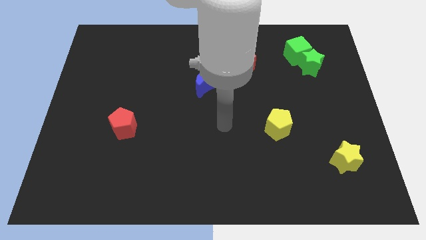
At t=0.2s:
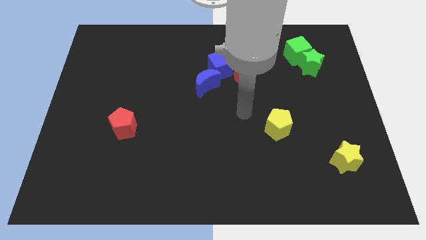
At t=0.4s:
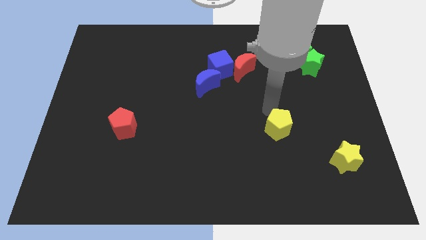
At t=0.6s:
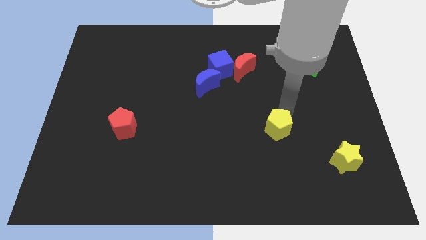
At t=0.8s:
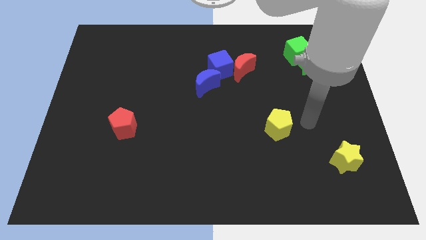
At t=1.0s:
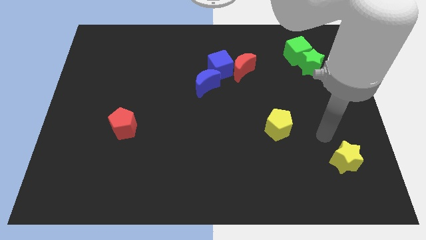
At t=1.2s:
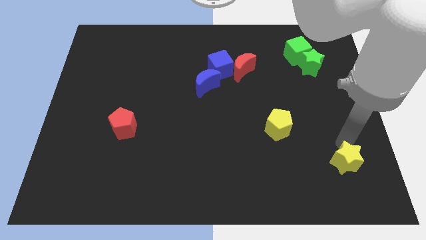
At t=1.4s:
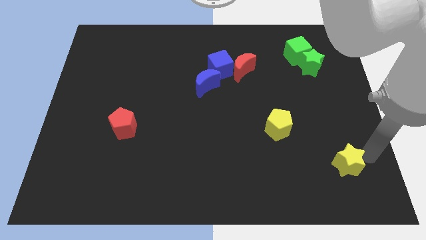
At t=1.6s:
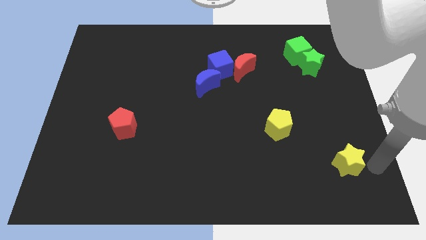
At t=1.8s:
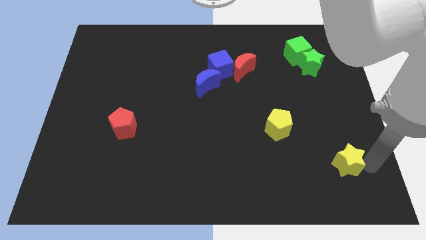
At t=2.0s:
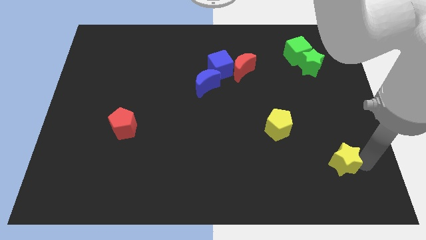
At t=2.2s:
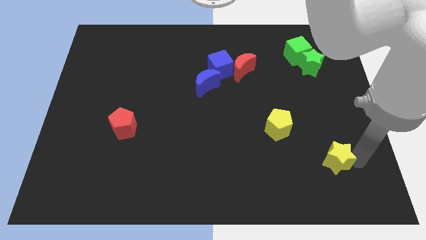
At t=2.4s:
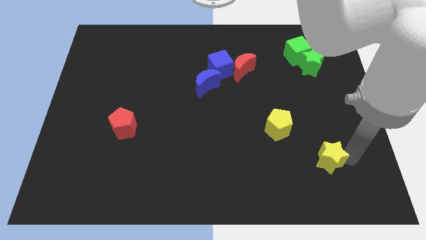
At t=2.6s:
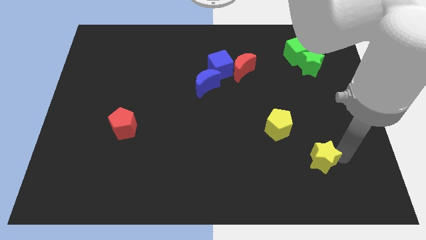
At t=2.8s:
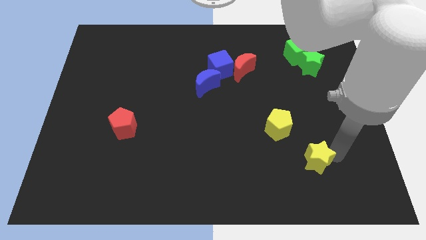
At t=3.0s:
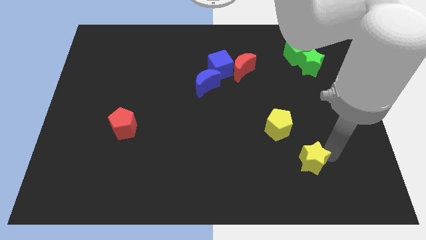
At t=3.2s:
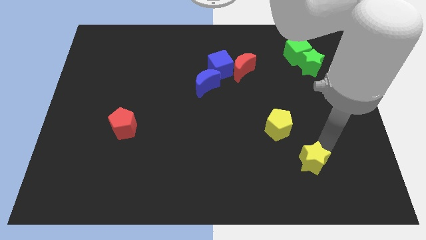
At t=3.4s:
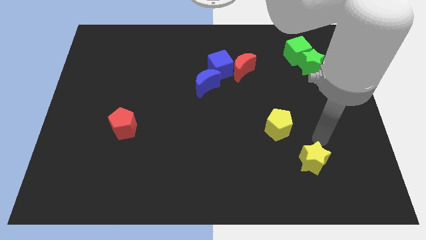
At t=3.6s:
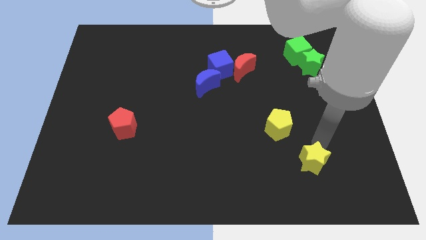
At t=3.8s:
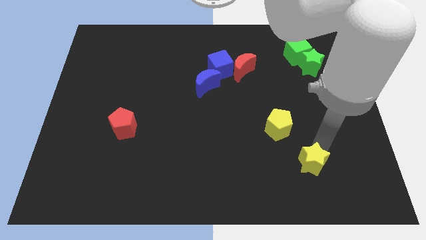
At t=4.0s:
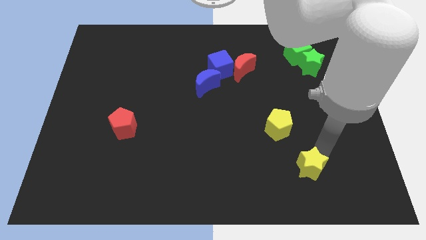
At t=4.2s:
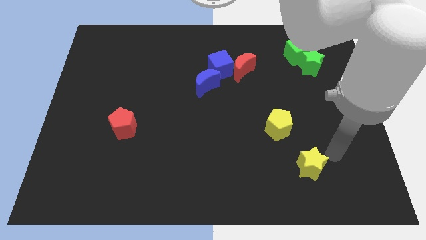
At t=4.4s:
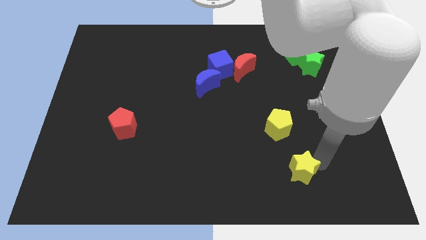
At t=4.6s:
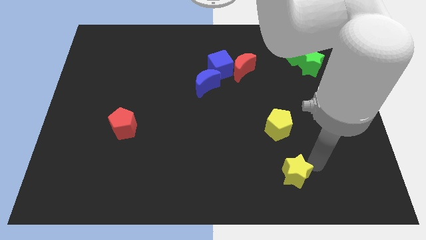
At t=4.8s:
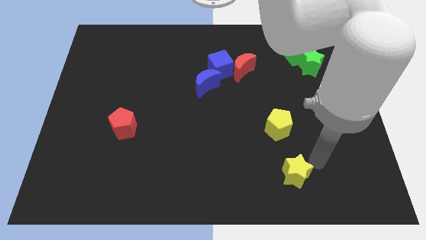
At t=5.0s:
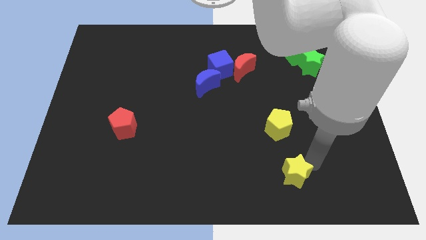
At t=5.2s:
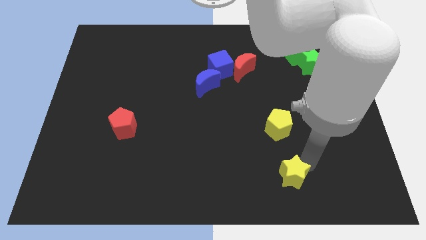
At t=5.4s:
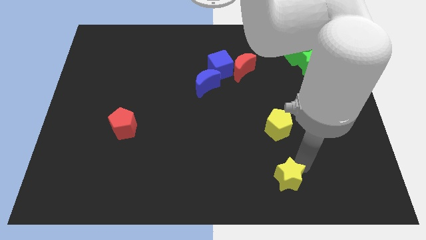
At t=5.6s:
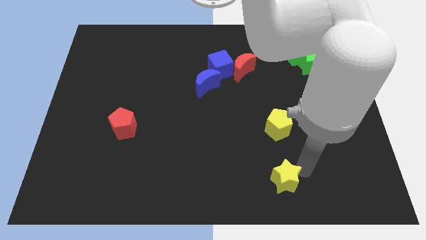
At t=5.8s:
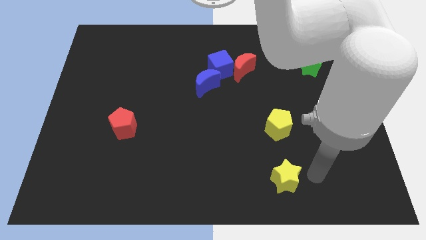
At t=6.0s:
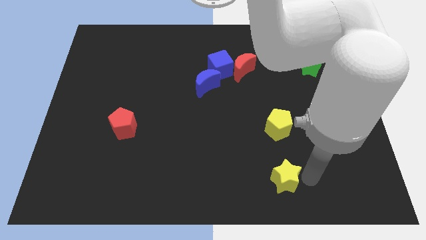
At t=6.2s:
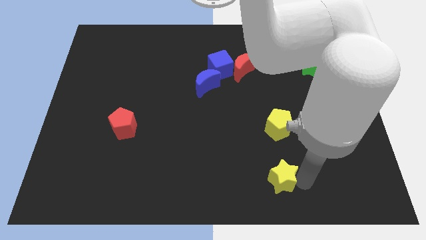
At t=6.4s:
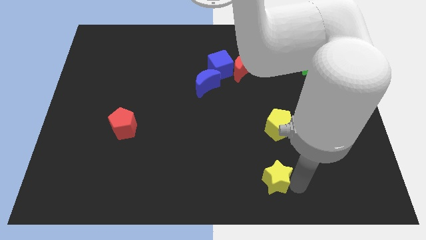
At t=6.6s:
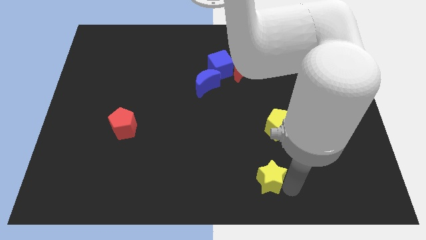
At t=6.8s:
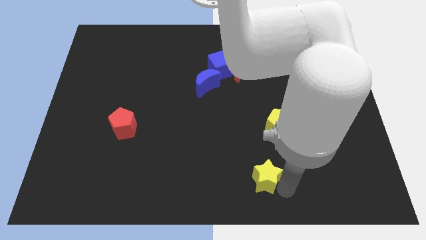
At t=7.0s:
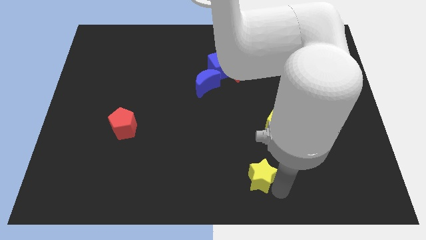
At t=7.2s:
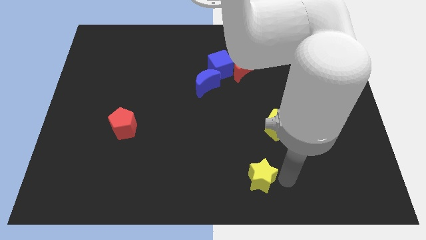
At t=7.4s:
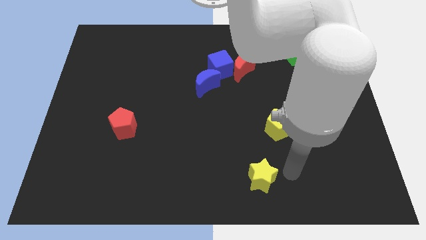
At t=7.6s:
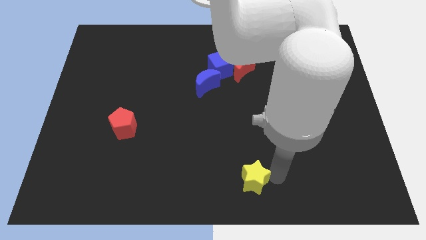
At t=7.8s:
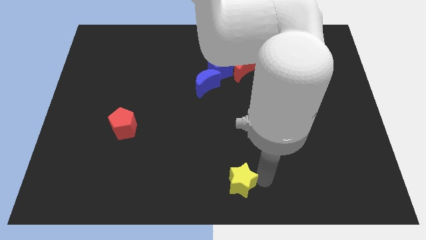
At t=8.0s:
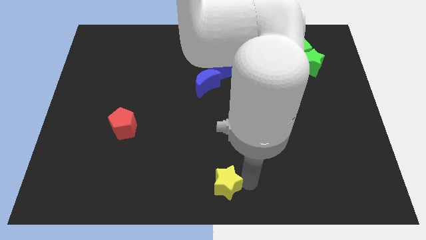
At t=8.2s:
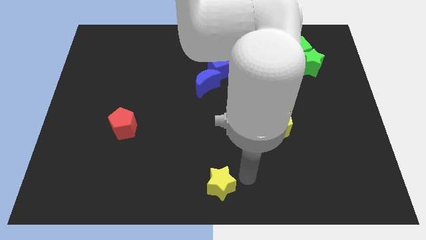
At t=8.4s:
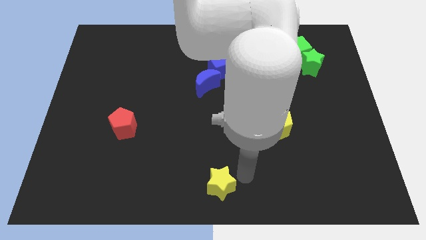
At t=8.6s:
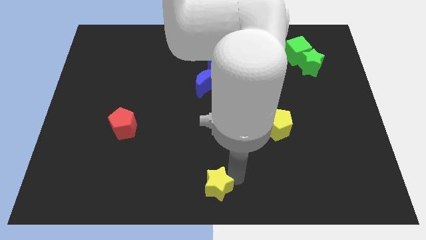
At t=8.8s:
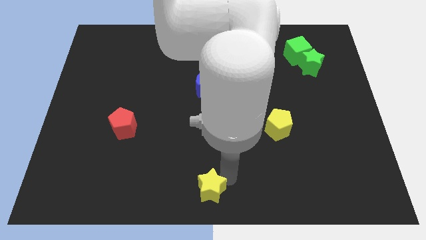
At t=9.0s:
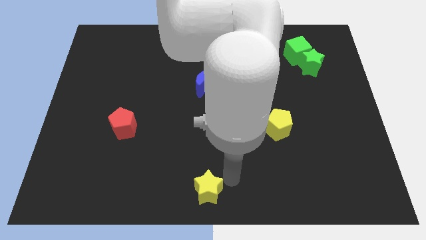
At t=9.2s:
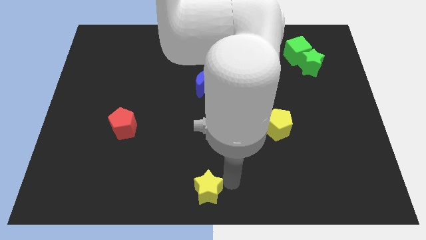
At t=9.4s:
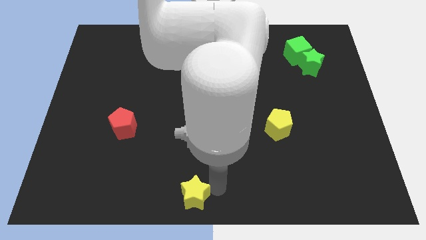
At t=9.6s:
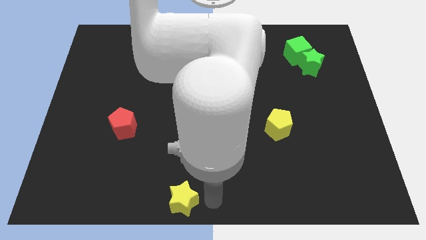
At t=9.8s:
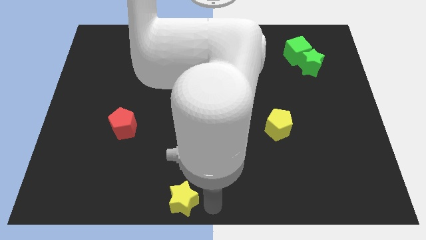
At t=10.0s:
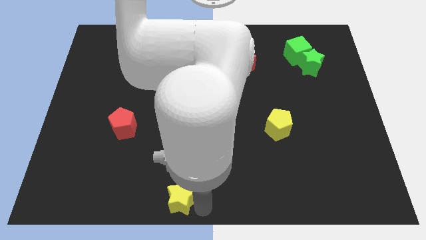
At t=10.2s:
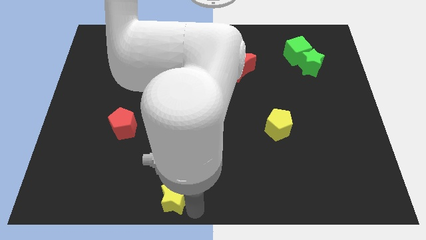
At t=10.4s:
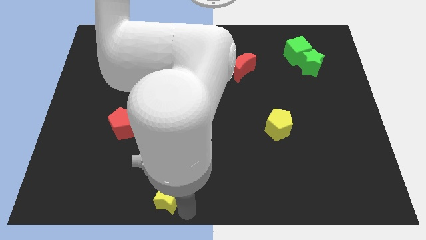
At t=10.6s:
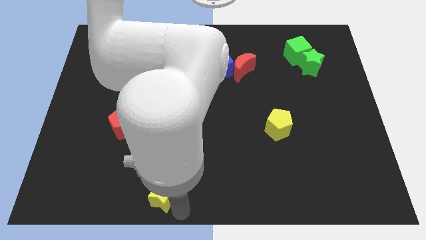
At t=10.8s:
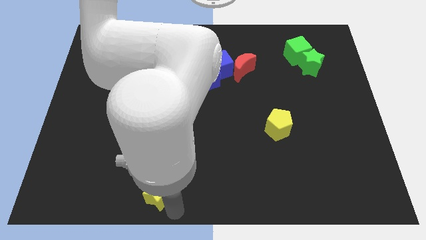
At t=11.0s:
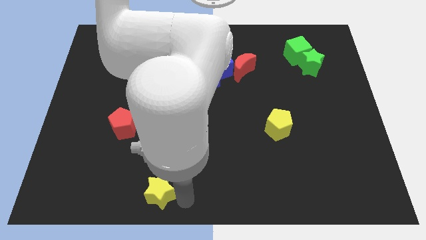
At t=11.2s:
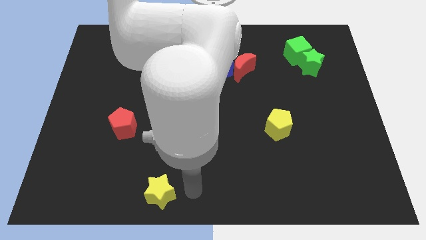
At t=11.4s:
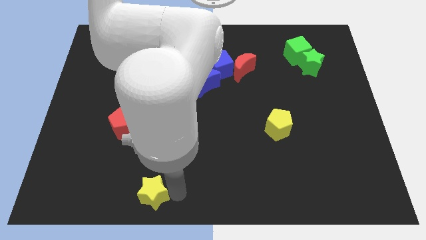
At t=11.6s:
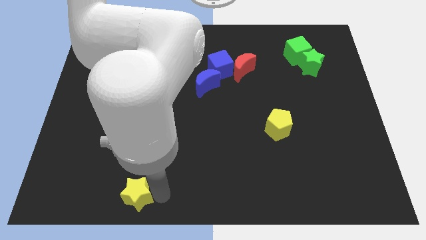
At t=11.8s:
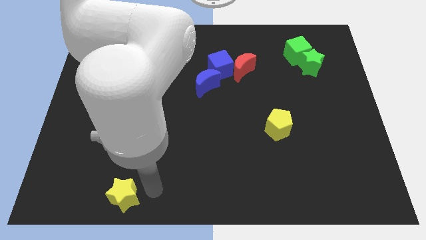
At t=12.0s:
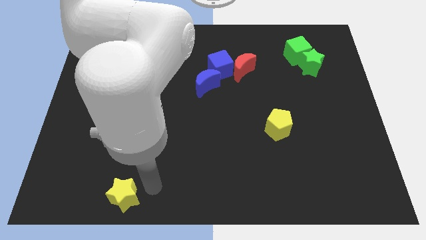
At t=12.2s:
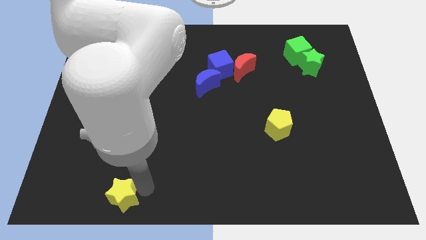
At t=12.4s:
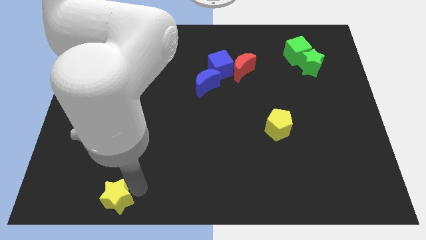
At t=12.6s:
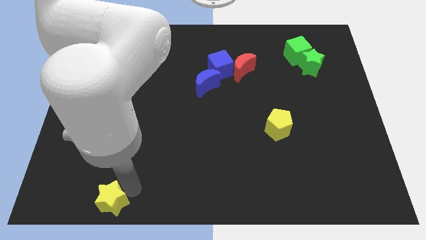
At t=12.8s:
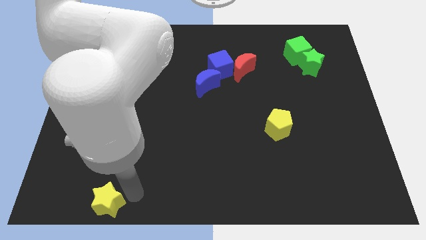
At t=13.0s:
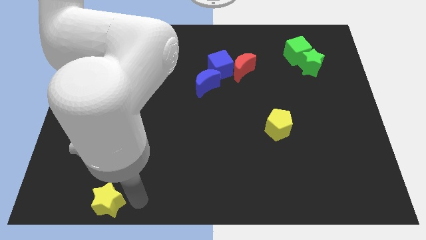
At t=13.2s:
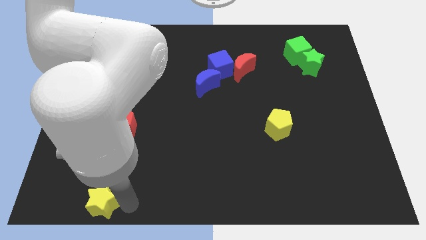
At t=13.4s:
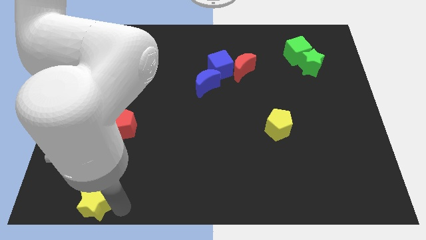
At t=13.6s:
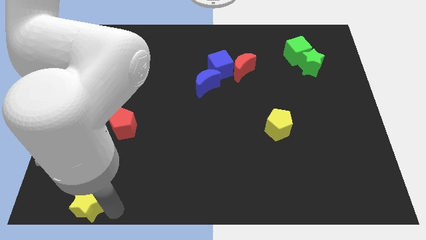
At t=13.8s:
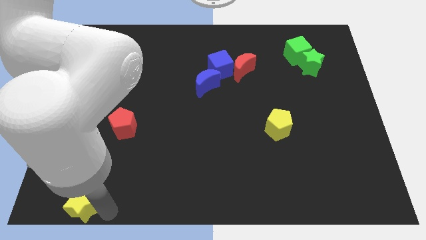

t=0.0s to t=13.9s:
push the yellow star to the bottom left corner
